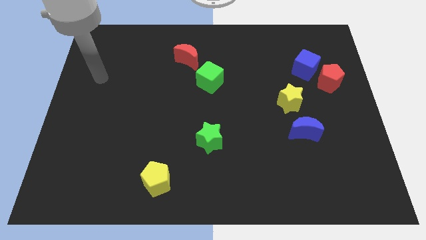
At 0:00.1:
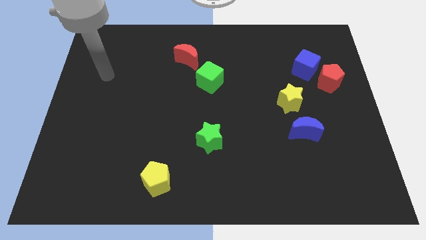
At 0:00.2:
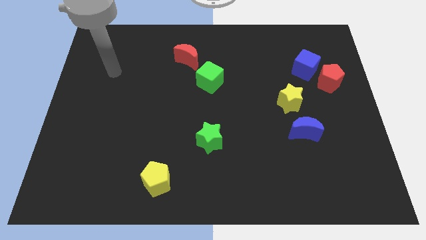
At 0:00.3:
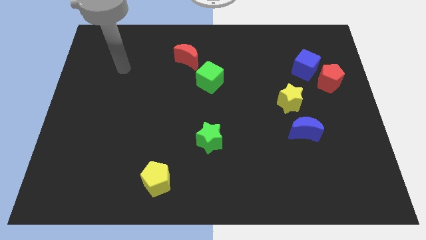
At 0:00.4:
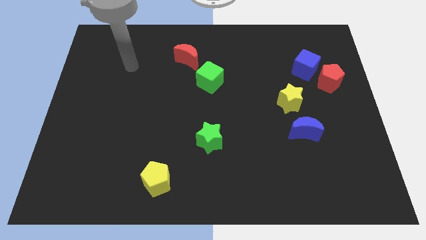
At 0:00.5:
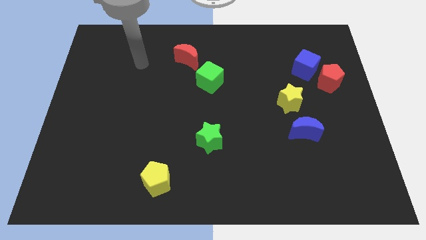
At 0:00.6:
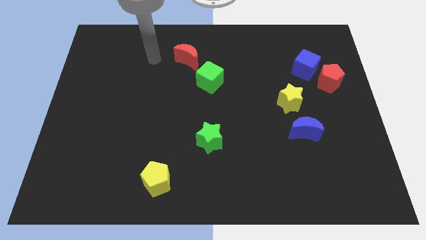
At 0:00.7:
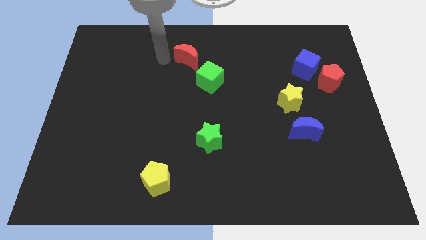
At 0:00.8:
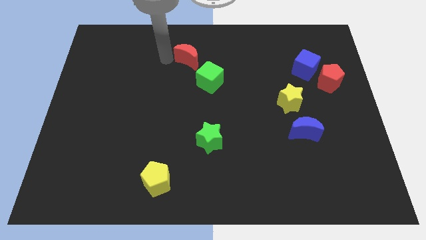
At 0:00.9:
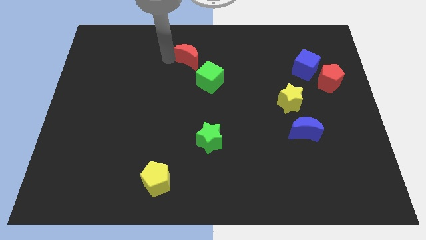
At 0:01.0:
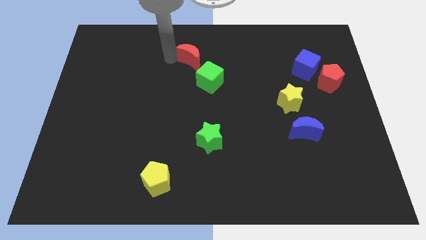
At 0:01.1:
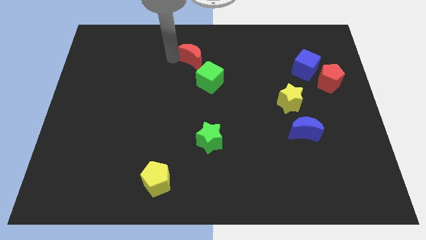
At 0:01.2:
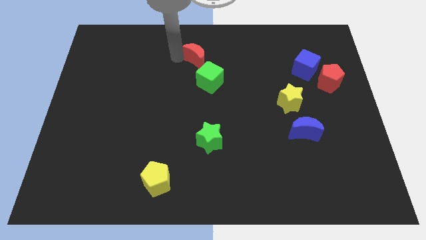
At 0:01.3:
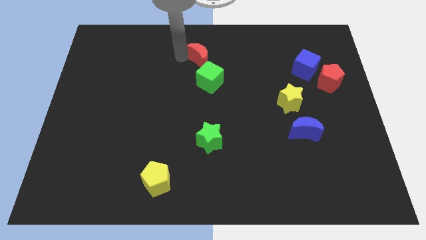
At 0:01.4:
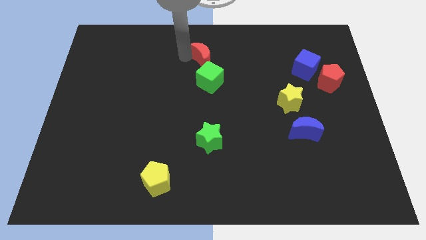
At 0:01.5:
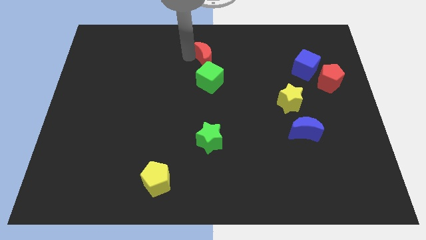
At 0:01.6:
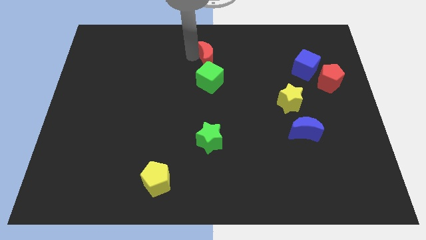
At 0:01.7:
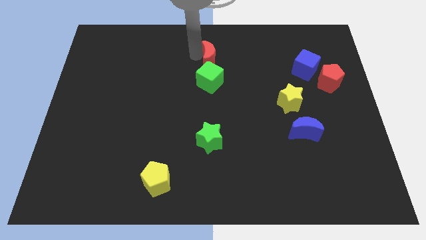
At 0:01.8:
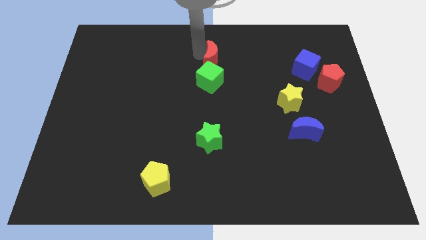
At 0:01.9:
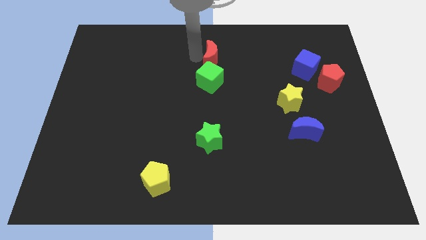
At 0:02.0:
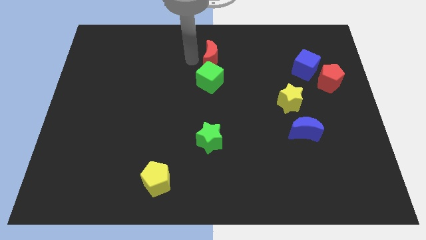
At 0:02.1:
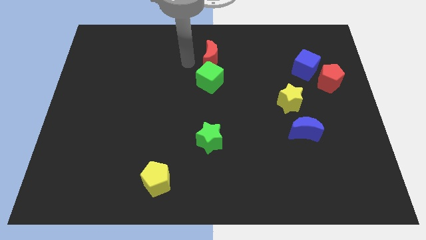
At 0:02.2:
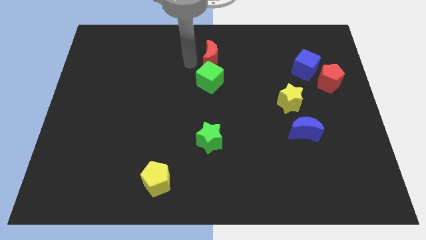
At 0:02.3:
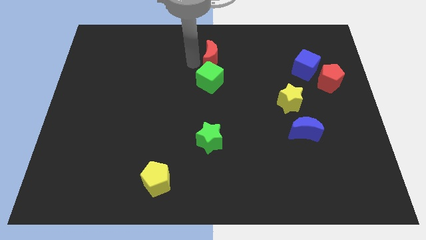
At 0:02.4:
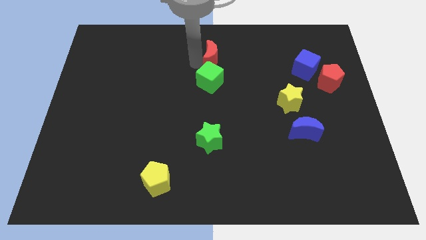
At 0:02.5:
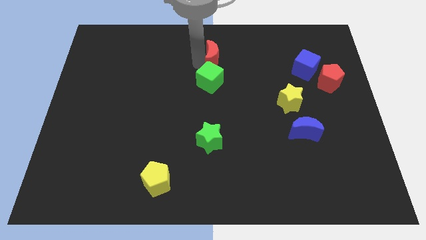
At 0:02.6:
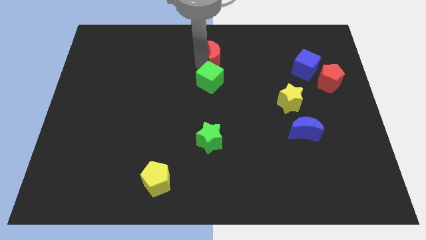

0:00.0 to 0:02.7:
slightly move the red moon right

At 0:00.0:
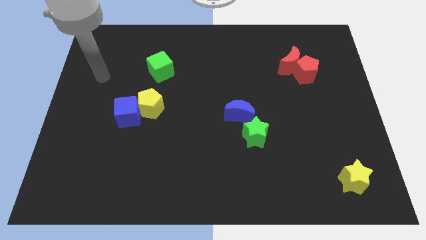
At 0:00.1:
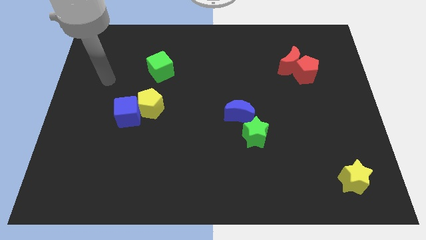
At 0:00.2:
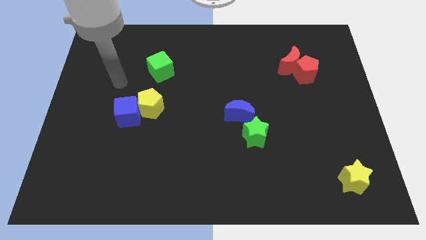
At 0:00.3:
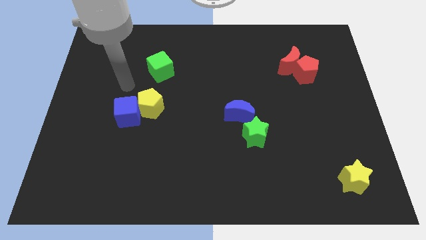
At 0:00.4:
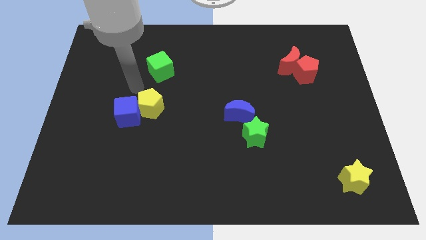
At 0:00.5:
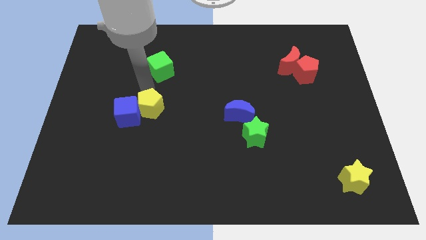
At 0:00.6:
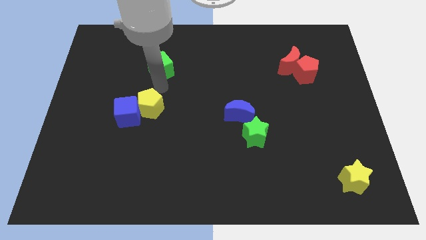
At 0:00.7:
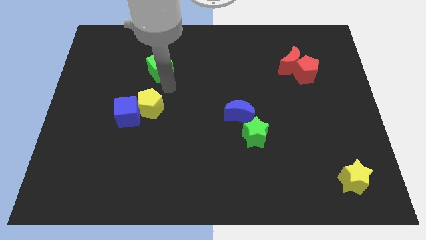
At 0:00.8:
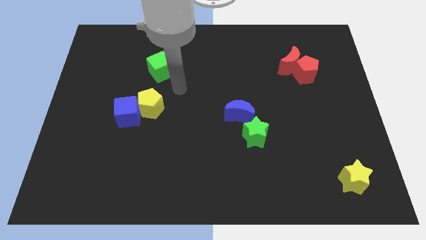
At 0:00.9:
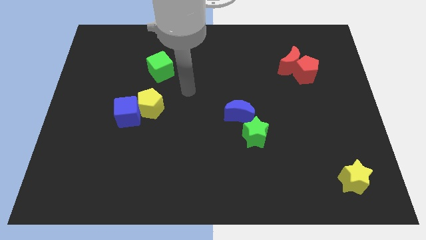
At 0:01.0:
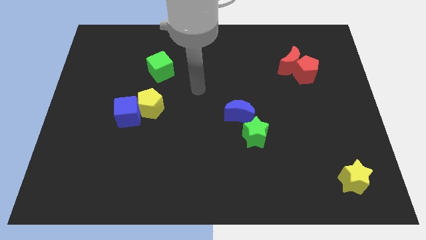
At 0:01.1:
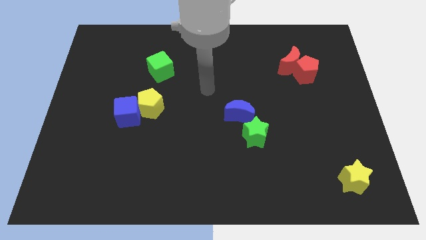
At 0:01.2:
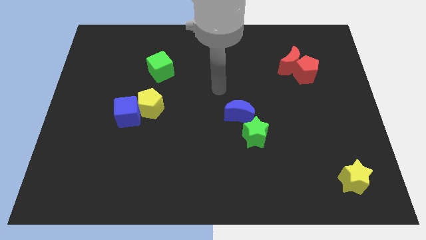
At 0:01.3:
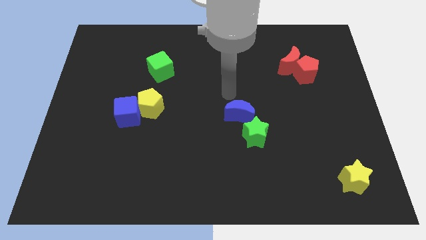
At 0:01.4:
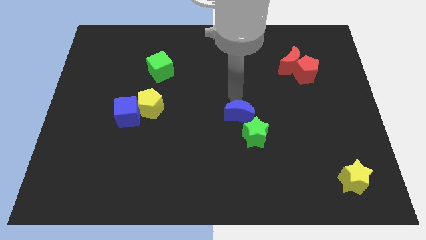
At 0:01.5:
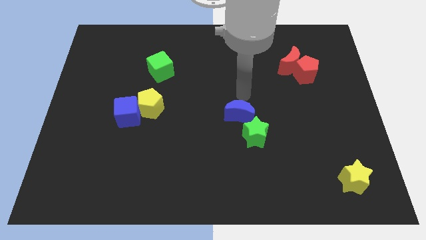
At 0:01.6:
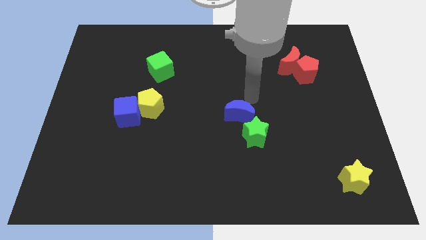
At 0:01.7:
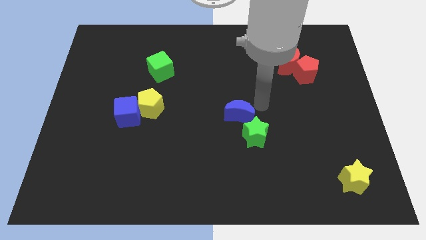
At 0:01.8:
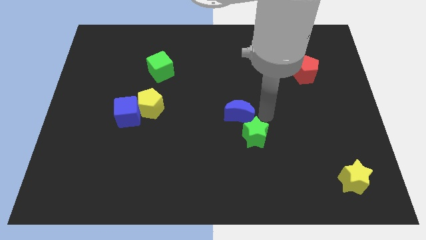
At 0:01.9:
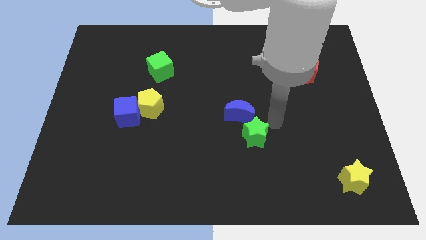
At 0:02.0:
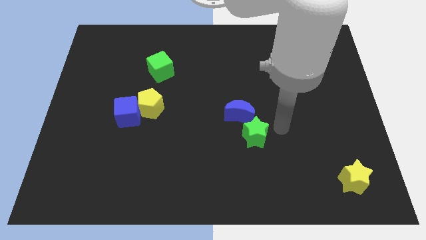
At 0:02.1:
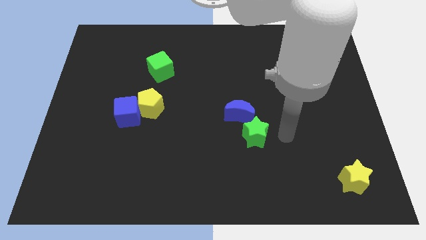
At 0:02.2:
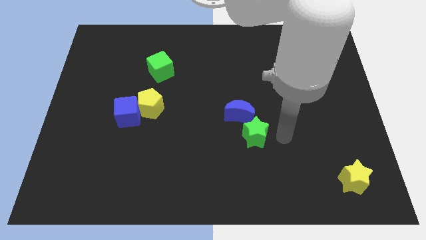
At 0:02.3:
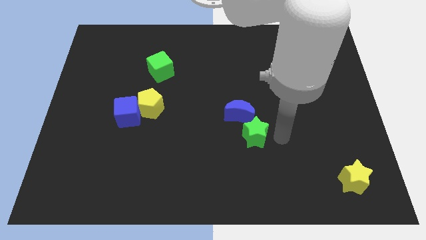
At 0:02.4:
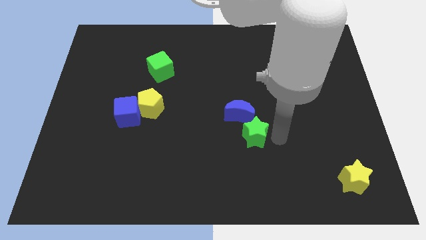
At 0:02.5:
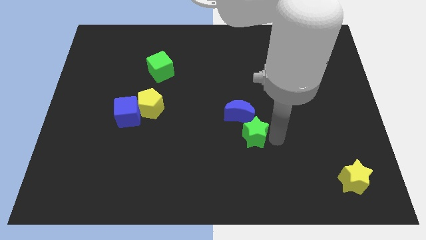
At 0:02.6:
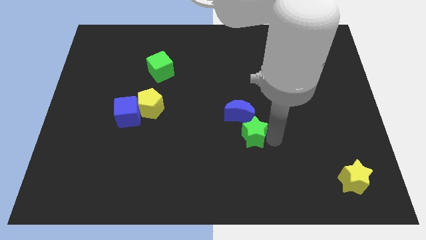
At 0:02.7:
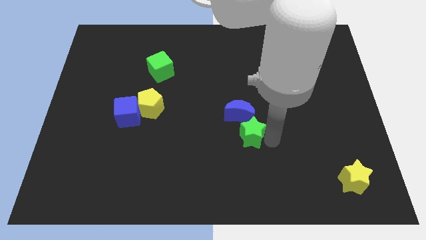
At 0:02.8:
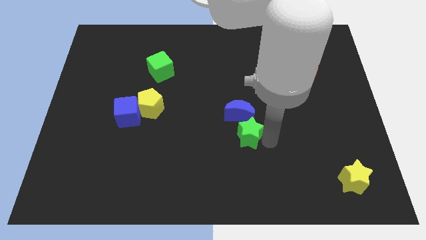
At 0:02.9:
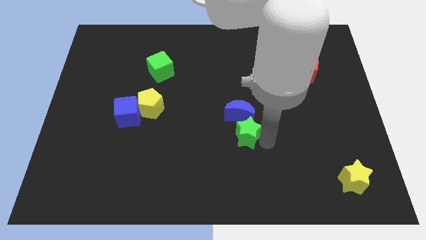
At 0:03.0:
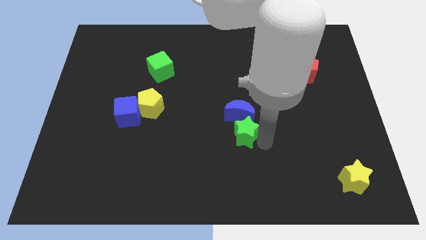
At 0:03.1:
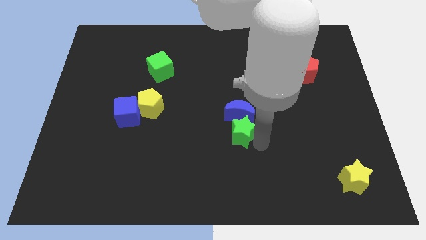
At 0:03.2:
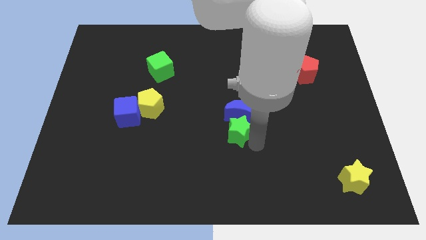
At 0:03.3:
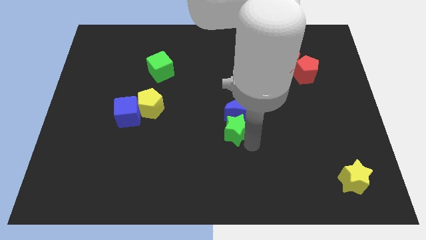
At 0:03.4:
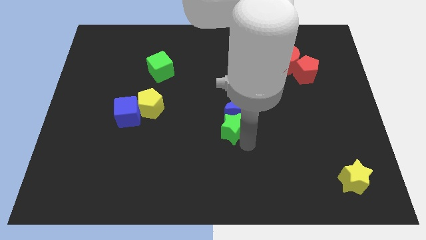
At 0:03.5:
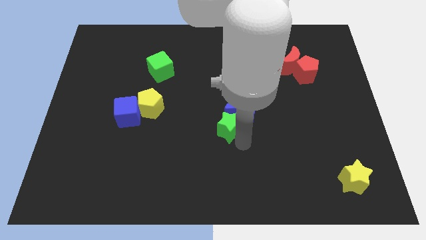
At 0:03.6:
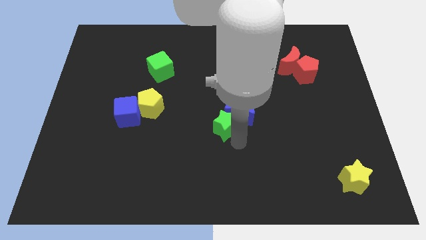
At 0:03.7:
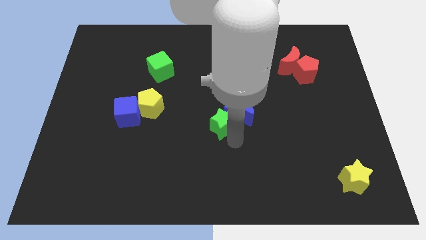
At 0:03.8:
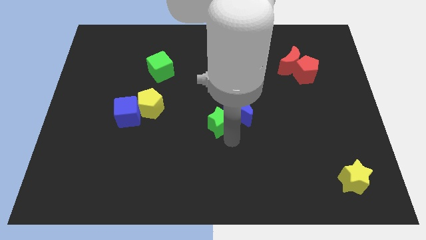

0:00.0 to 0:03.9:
move the green star a bit up and to the left

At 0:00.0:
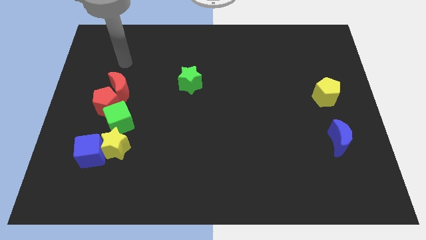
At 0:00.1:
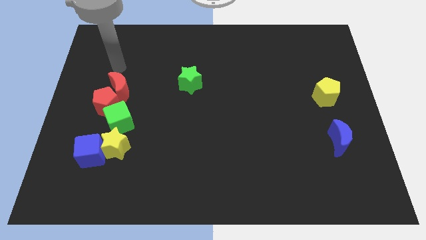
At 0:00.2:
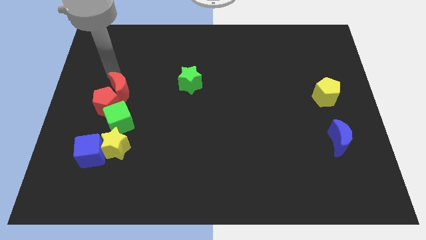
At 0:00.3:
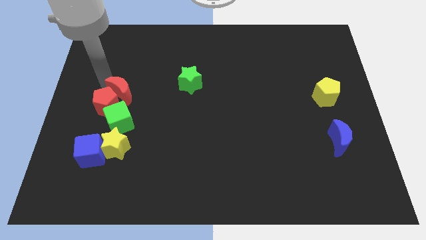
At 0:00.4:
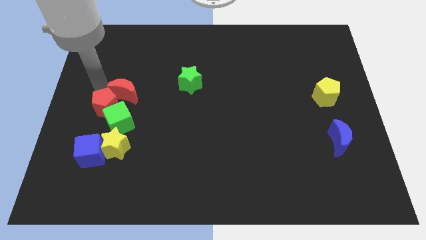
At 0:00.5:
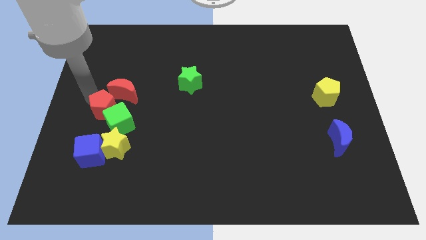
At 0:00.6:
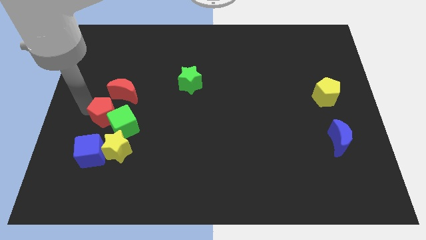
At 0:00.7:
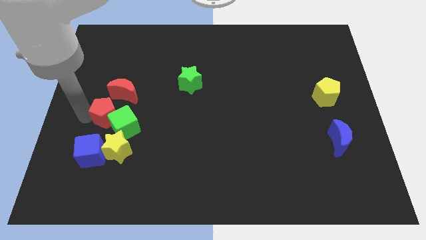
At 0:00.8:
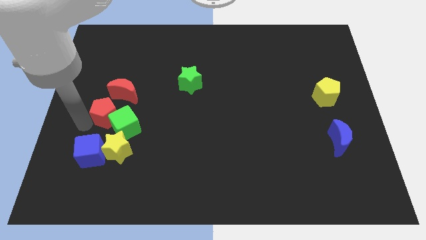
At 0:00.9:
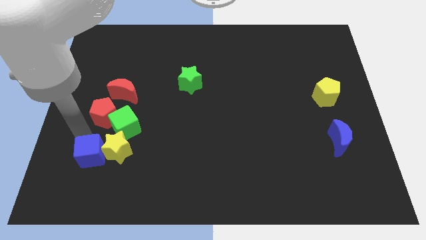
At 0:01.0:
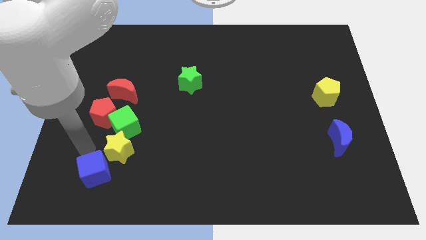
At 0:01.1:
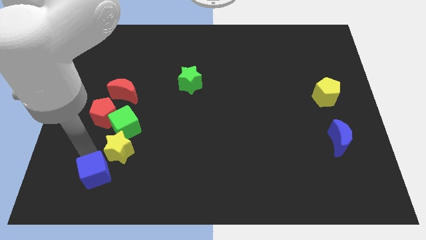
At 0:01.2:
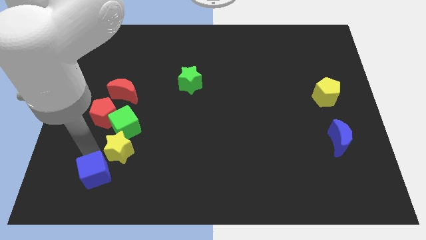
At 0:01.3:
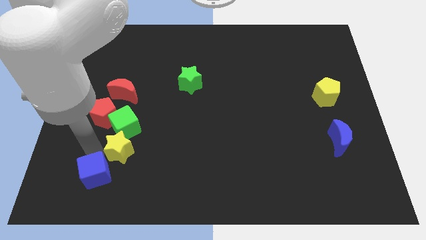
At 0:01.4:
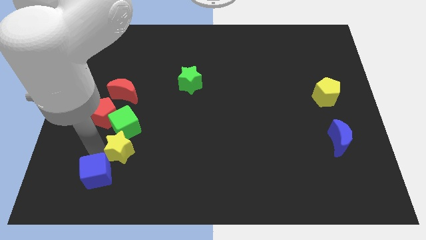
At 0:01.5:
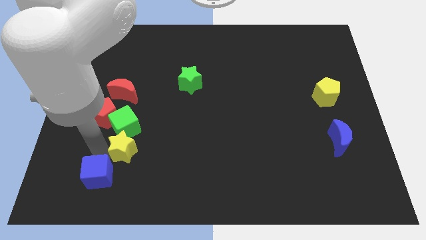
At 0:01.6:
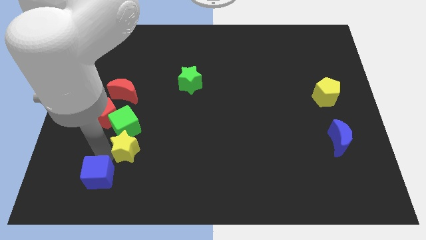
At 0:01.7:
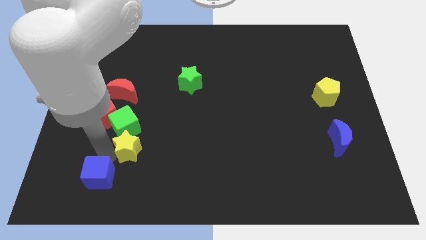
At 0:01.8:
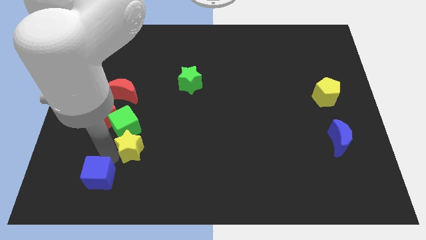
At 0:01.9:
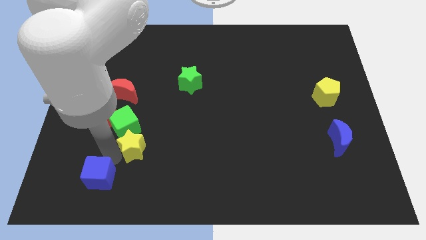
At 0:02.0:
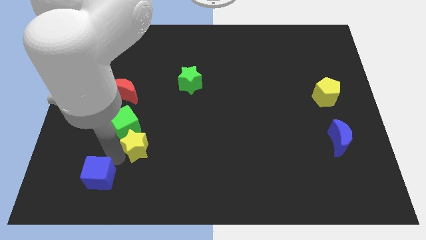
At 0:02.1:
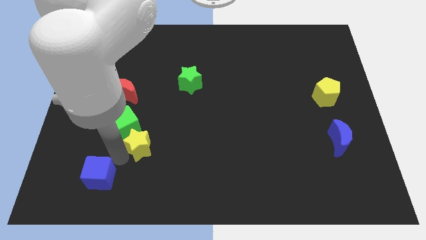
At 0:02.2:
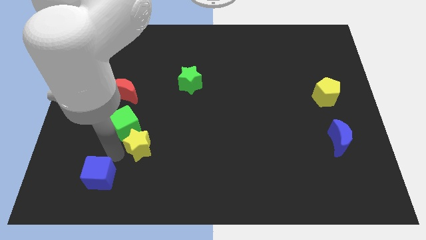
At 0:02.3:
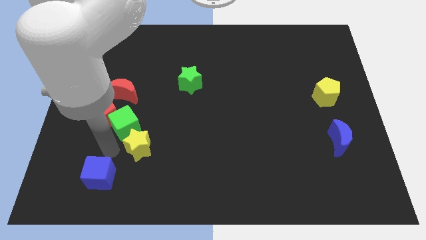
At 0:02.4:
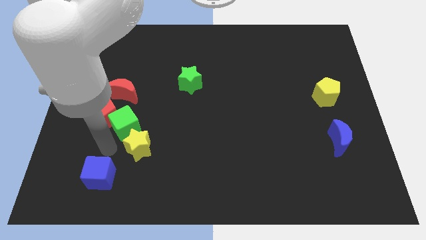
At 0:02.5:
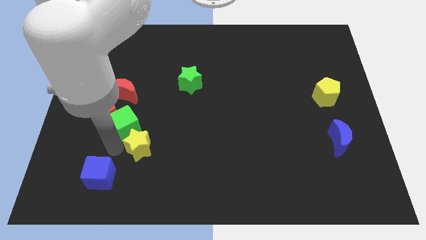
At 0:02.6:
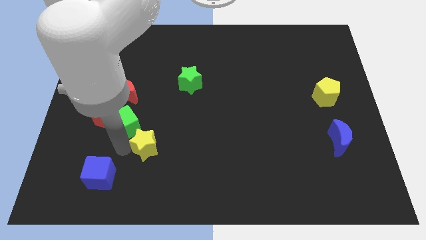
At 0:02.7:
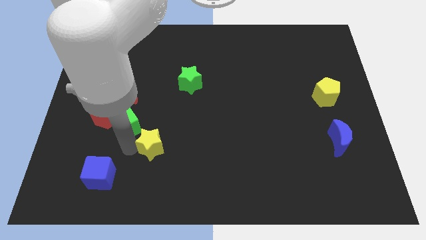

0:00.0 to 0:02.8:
slide the yellow star slightly to the right
